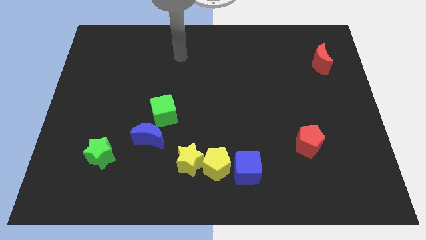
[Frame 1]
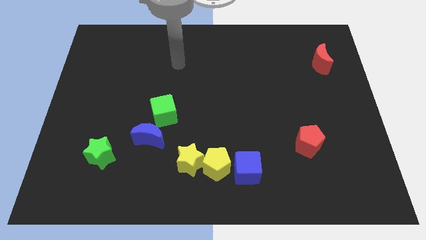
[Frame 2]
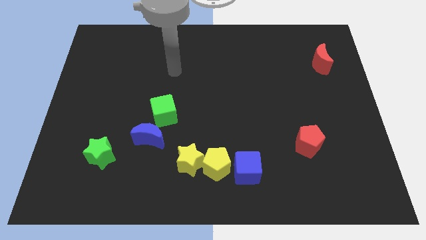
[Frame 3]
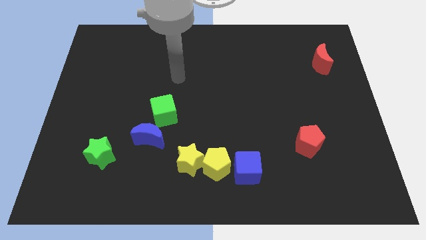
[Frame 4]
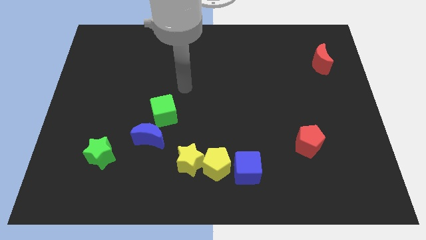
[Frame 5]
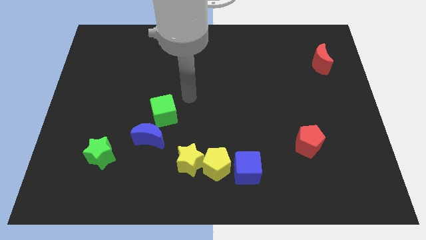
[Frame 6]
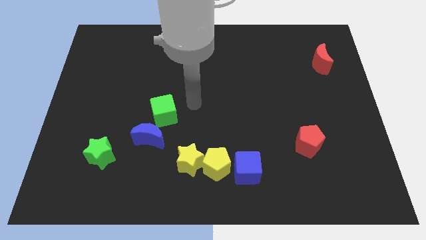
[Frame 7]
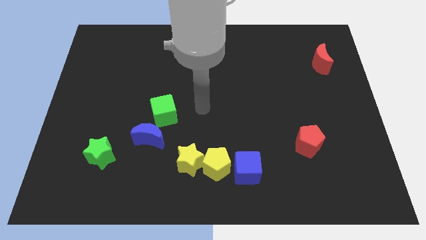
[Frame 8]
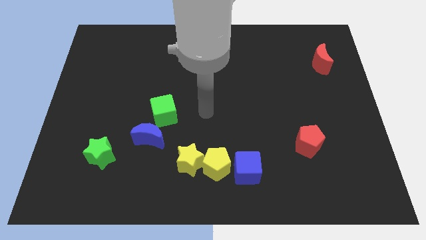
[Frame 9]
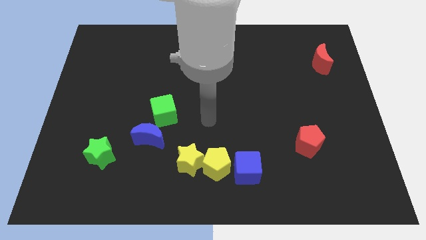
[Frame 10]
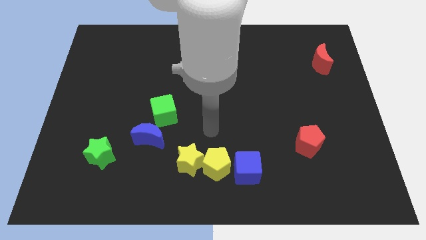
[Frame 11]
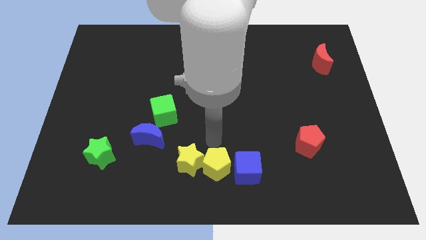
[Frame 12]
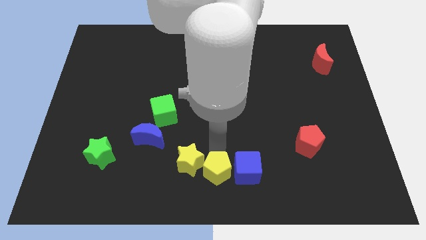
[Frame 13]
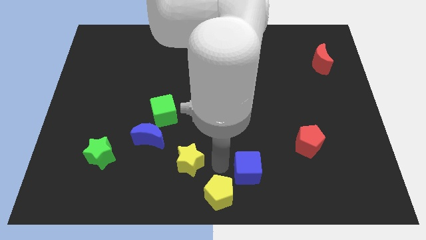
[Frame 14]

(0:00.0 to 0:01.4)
move the yellow star away from the yellow pentagon

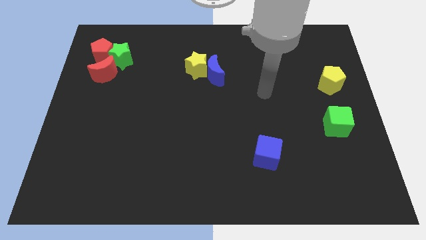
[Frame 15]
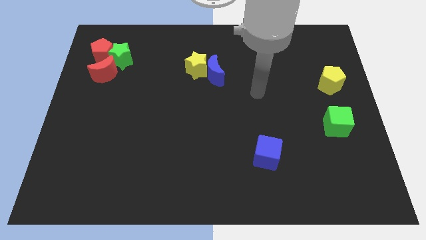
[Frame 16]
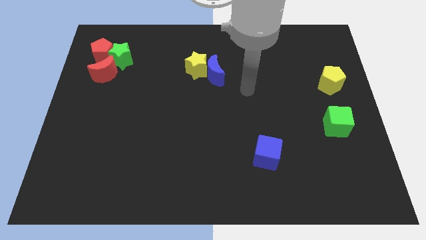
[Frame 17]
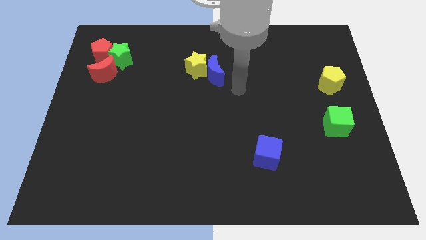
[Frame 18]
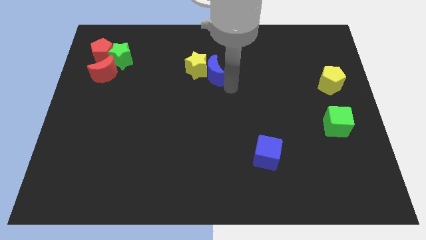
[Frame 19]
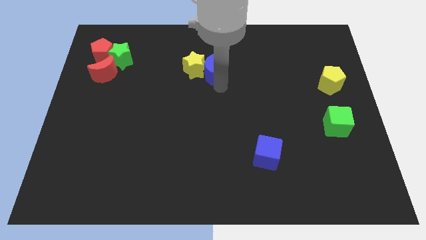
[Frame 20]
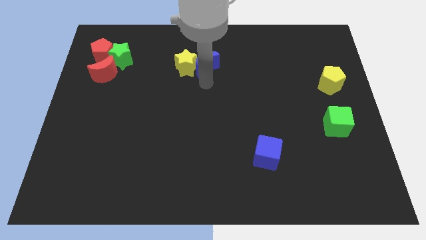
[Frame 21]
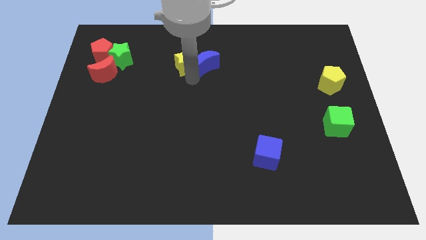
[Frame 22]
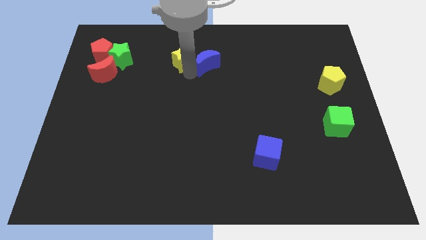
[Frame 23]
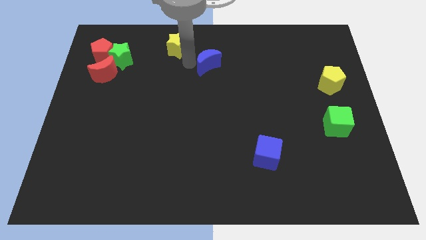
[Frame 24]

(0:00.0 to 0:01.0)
pull the blue moon apart from the yellow star

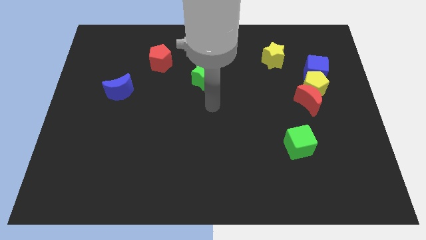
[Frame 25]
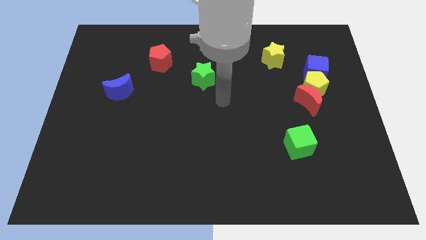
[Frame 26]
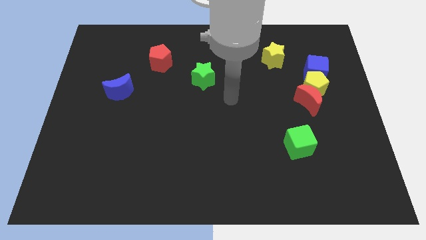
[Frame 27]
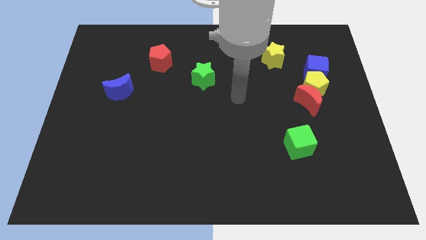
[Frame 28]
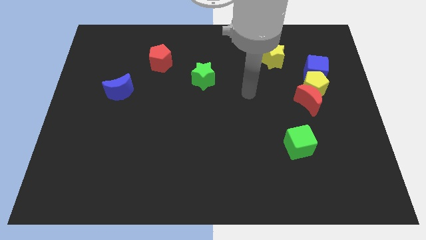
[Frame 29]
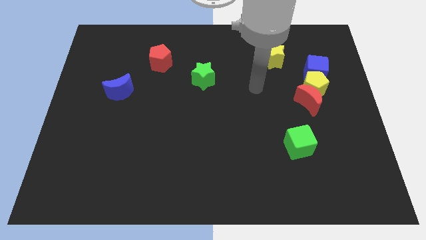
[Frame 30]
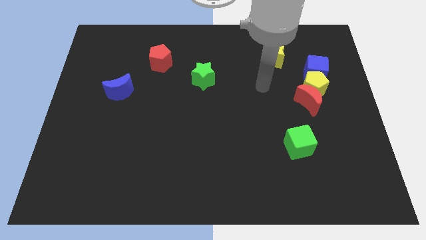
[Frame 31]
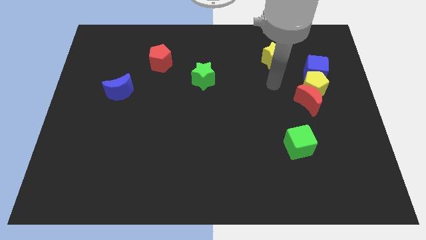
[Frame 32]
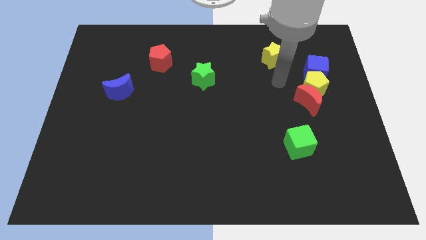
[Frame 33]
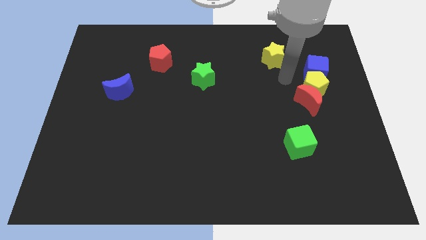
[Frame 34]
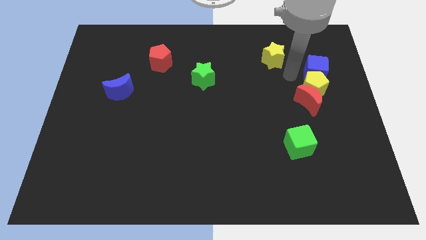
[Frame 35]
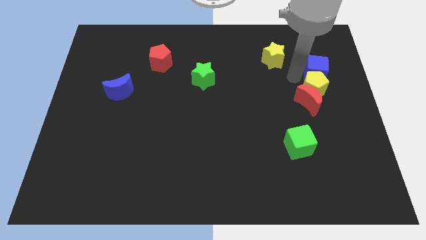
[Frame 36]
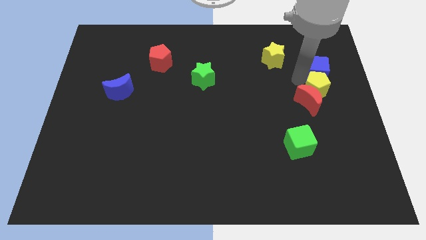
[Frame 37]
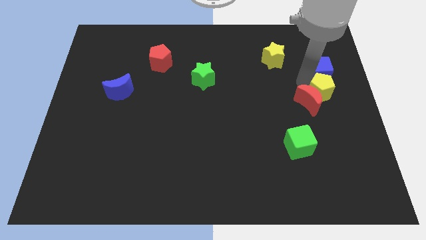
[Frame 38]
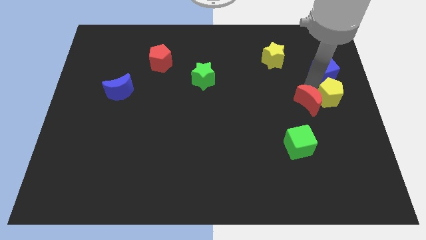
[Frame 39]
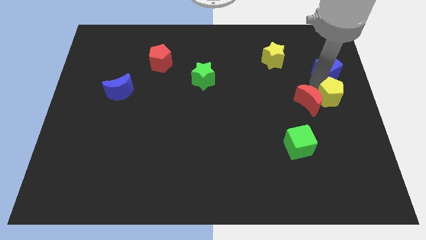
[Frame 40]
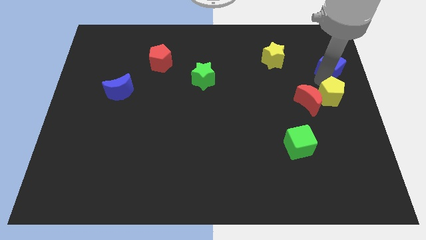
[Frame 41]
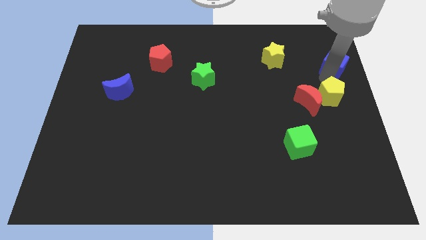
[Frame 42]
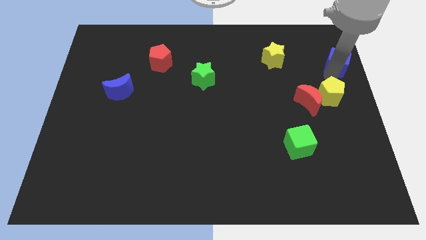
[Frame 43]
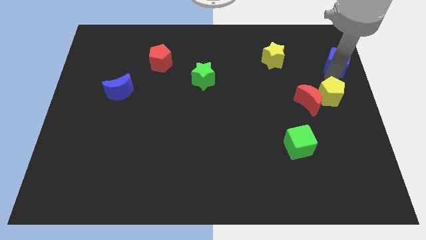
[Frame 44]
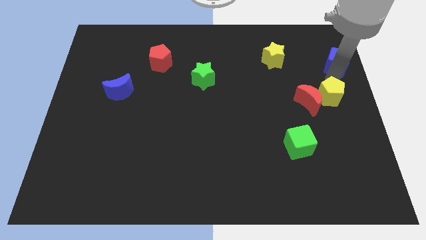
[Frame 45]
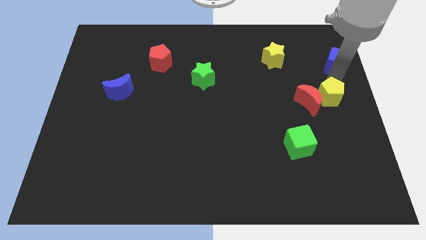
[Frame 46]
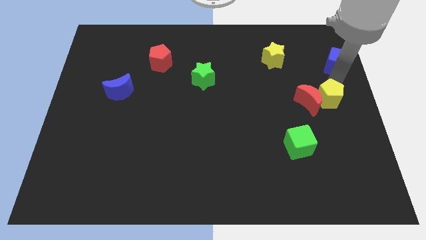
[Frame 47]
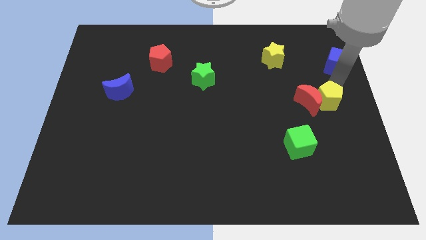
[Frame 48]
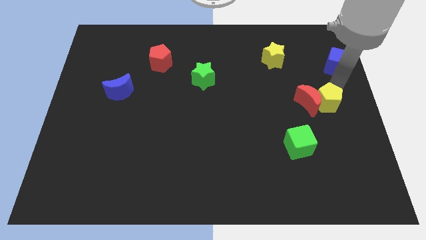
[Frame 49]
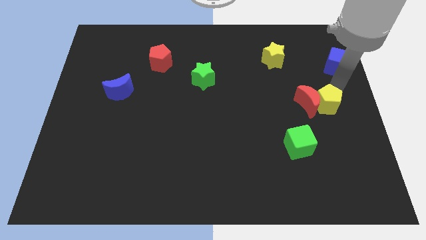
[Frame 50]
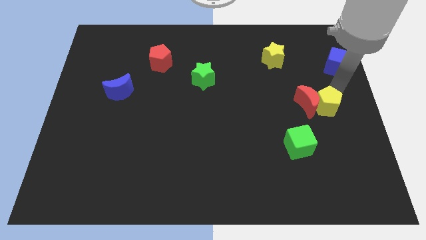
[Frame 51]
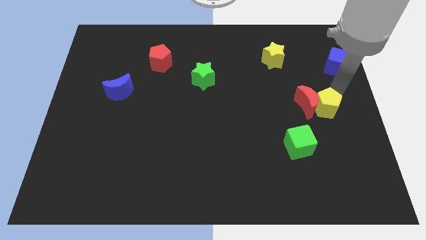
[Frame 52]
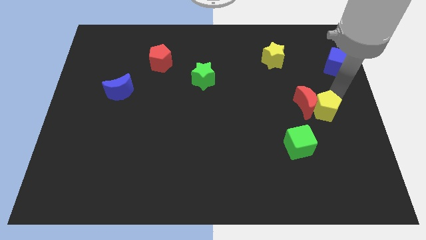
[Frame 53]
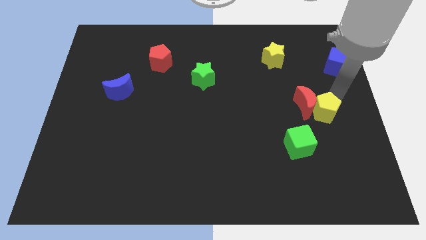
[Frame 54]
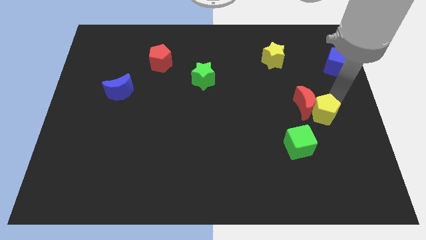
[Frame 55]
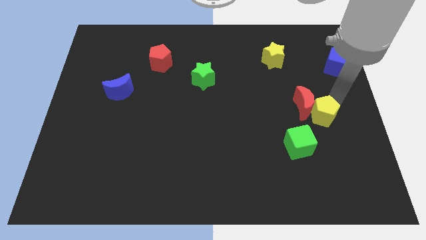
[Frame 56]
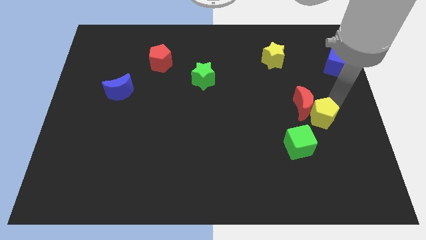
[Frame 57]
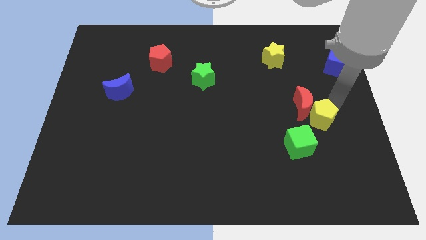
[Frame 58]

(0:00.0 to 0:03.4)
separate the yellow pentagon from the red moon and blue cube

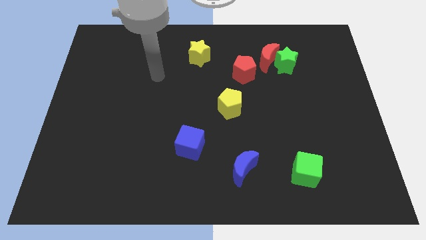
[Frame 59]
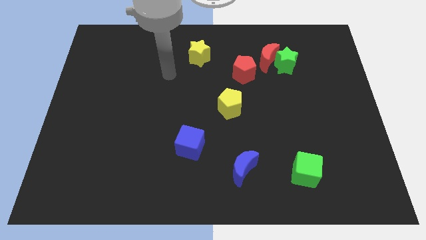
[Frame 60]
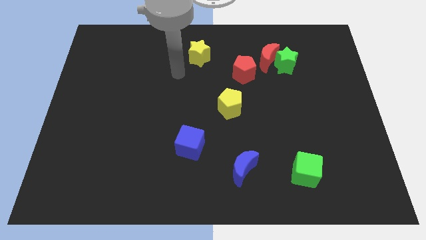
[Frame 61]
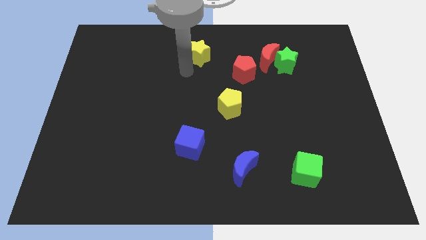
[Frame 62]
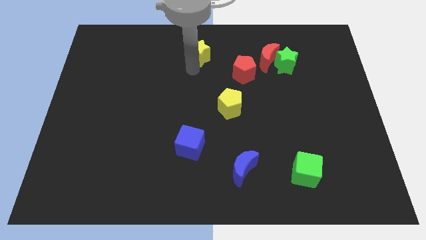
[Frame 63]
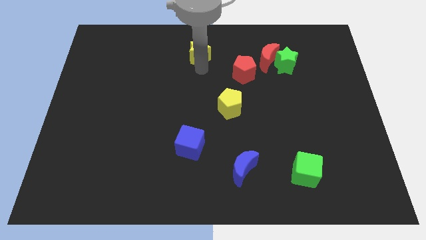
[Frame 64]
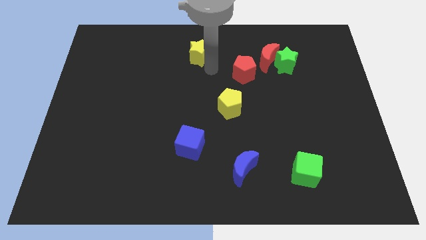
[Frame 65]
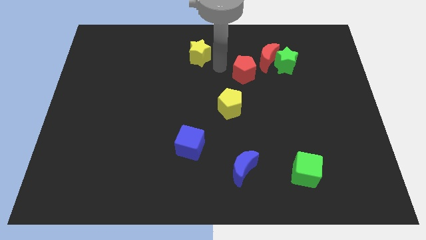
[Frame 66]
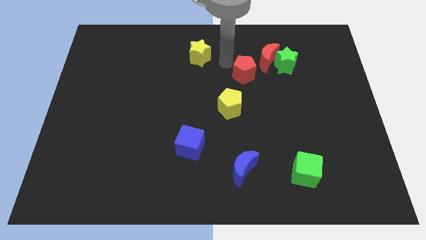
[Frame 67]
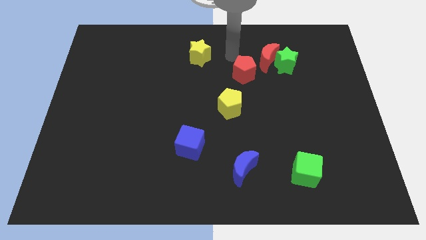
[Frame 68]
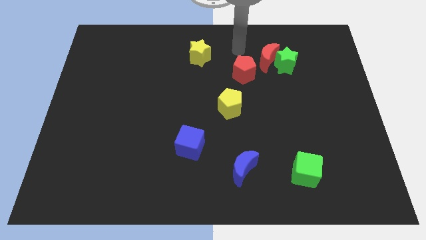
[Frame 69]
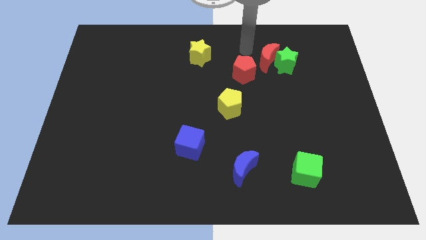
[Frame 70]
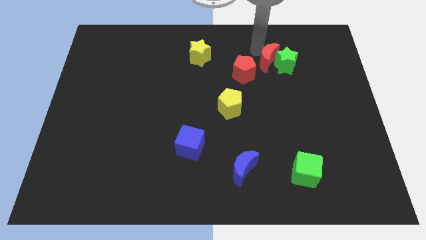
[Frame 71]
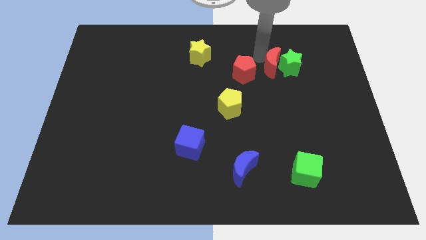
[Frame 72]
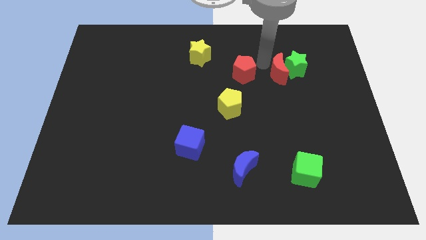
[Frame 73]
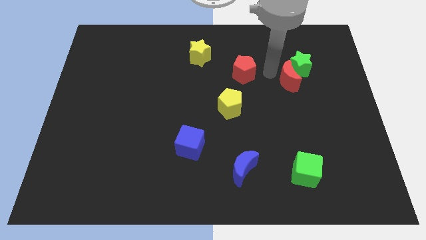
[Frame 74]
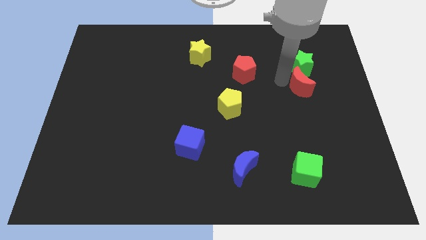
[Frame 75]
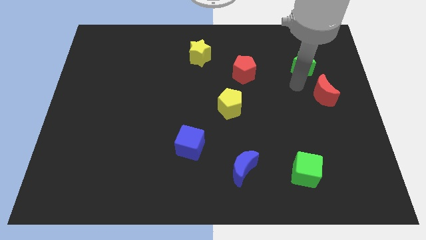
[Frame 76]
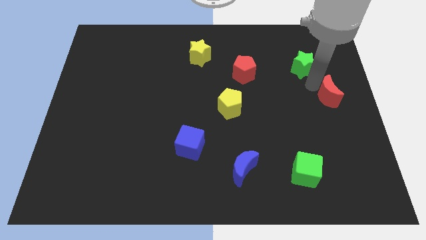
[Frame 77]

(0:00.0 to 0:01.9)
move the green star away from the red moon

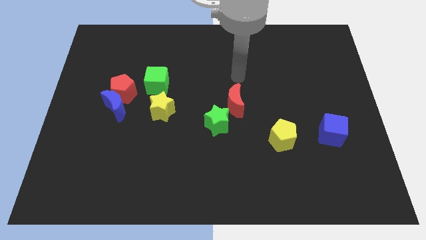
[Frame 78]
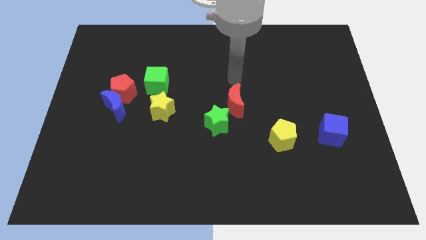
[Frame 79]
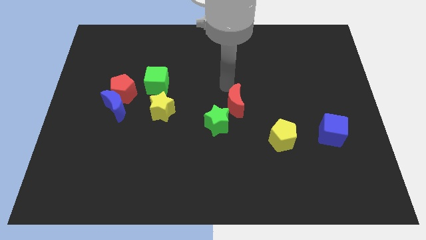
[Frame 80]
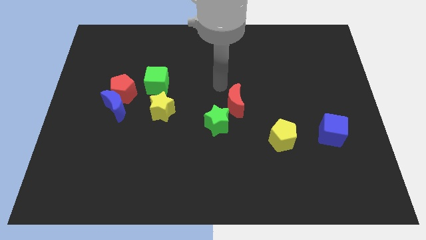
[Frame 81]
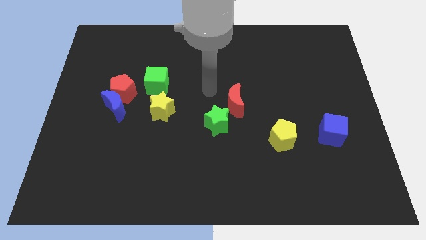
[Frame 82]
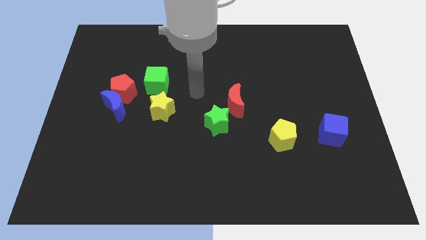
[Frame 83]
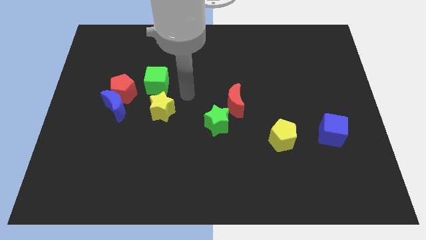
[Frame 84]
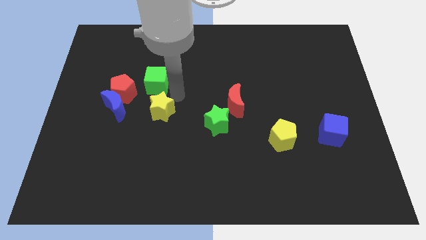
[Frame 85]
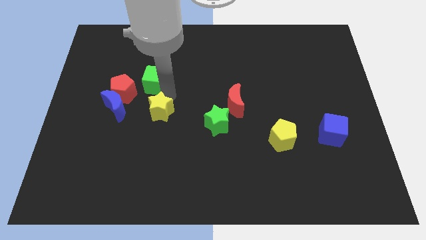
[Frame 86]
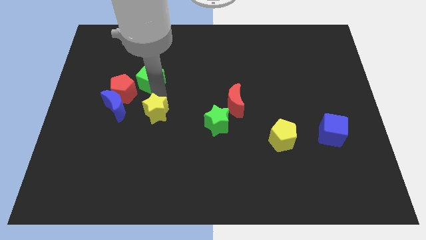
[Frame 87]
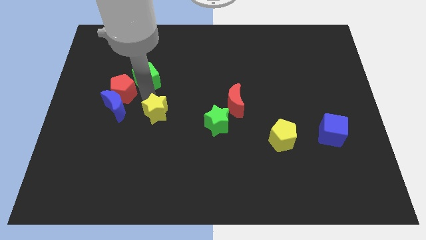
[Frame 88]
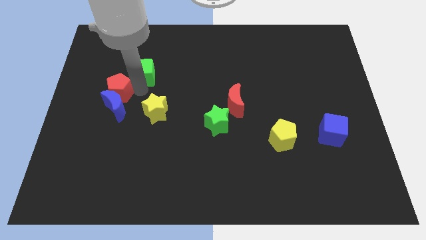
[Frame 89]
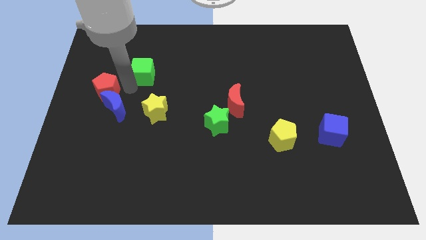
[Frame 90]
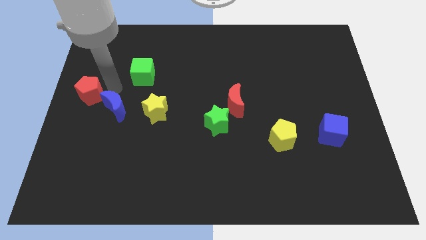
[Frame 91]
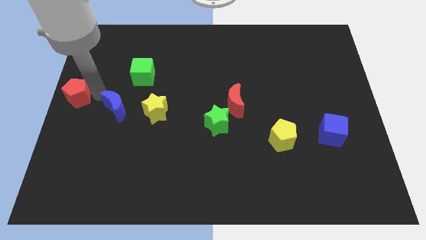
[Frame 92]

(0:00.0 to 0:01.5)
separate the blue moon from the red pentagon

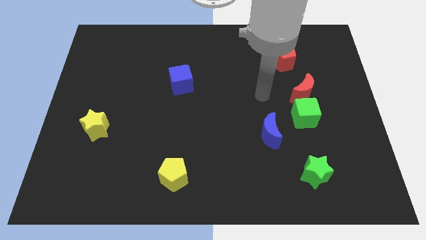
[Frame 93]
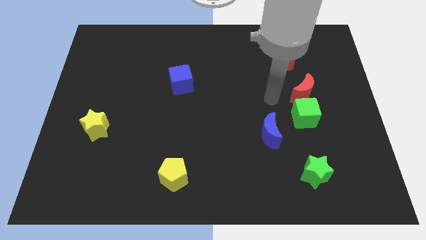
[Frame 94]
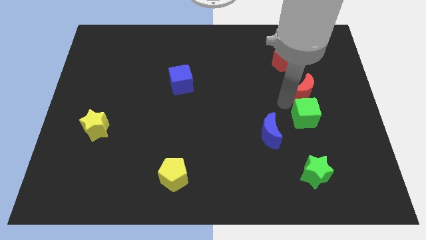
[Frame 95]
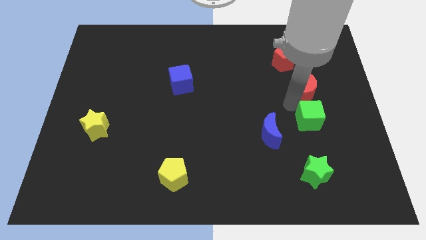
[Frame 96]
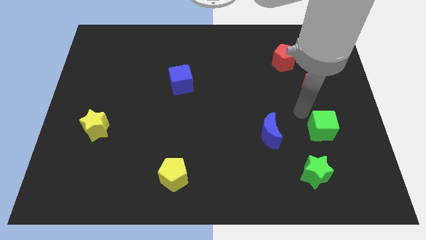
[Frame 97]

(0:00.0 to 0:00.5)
move the red moon away from the green cube
